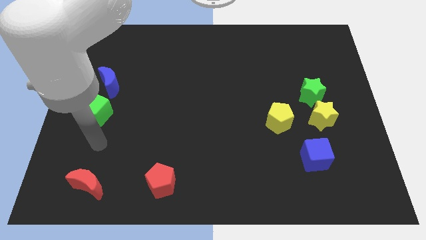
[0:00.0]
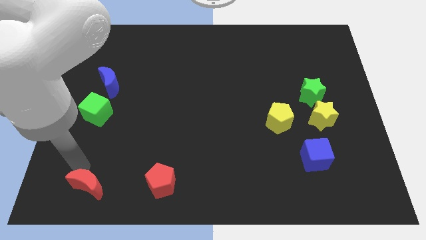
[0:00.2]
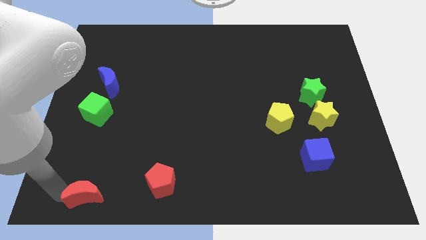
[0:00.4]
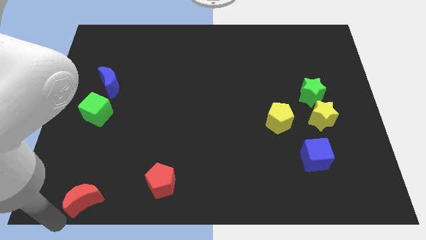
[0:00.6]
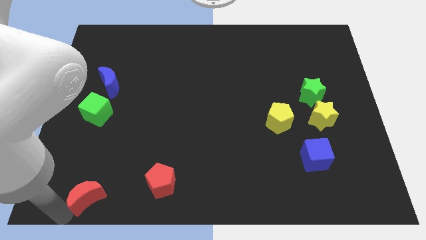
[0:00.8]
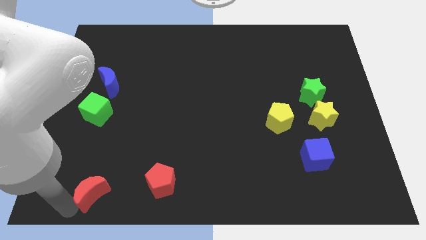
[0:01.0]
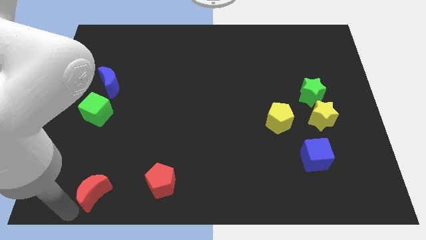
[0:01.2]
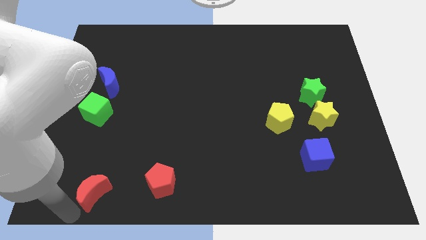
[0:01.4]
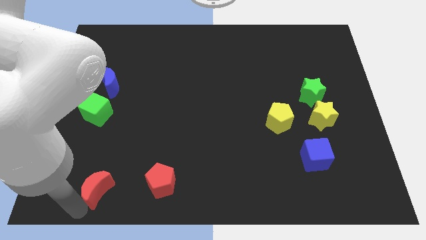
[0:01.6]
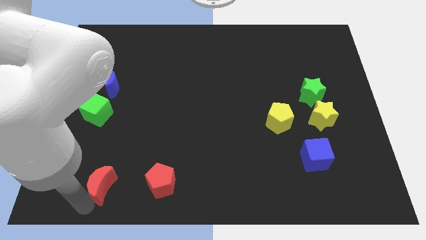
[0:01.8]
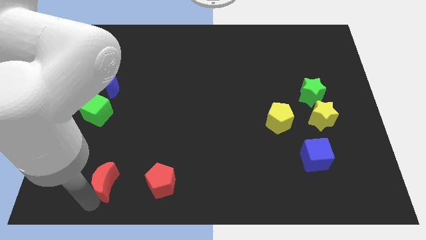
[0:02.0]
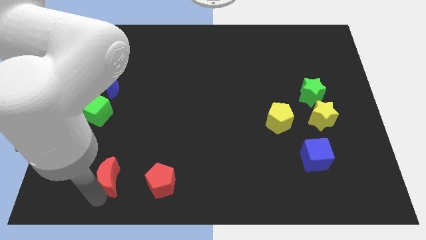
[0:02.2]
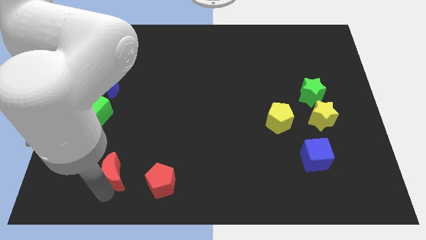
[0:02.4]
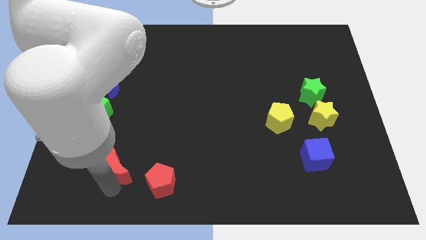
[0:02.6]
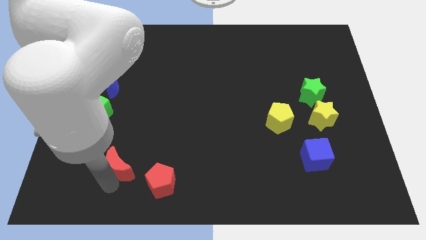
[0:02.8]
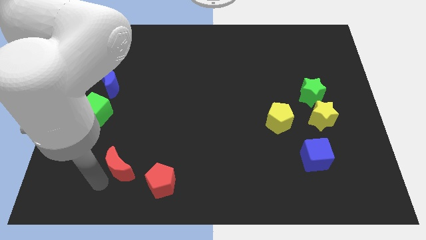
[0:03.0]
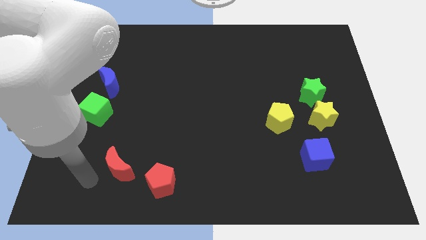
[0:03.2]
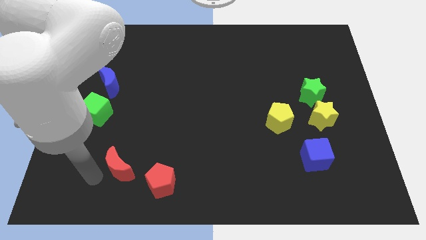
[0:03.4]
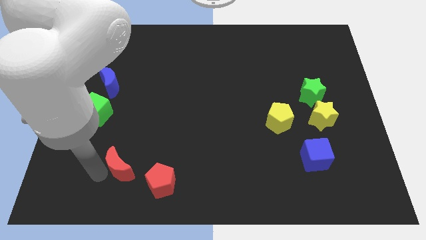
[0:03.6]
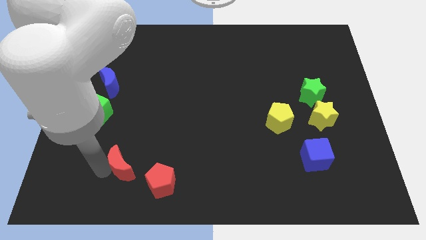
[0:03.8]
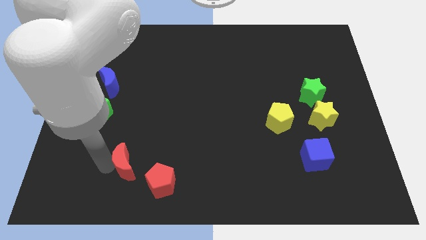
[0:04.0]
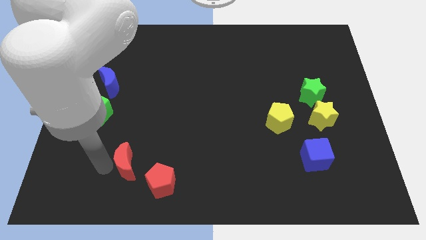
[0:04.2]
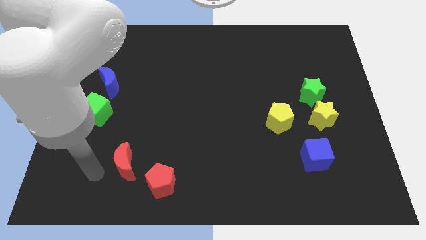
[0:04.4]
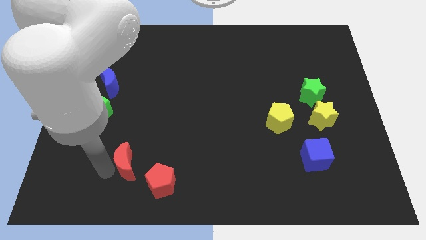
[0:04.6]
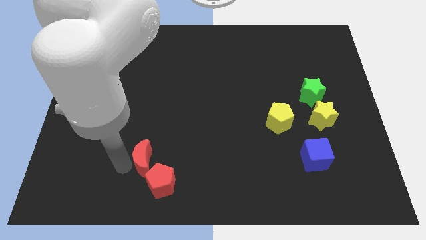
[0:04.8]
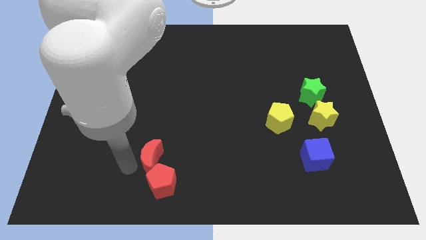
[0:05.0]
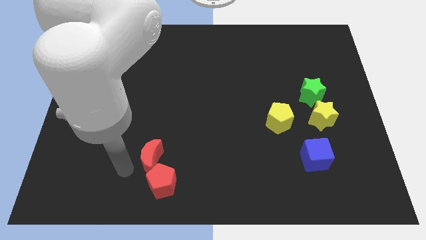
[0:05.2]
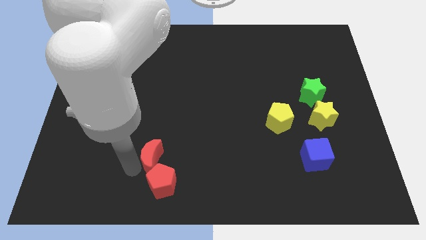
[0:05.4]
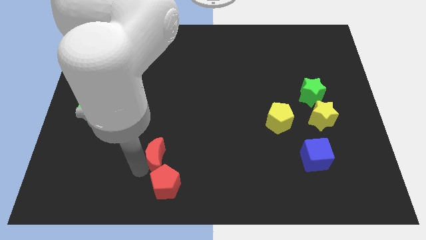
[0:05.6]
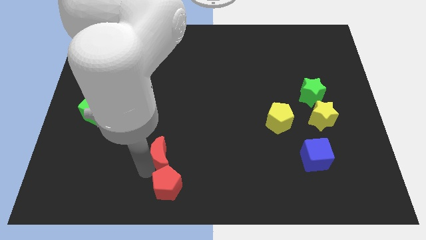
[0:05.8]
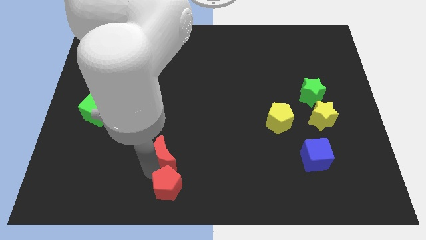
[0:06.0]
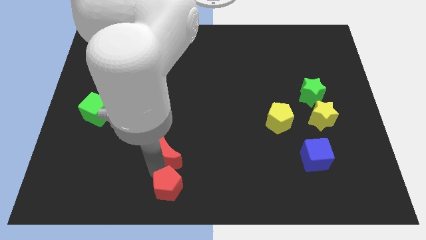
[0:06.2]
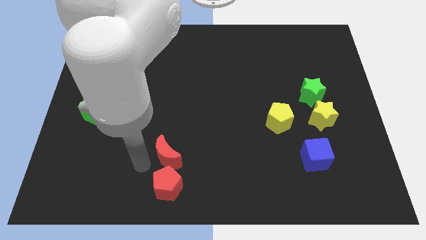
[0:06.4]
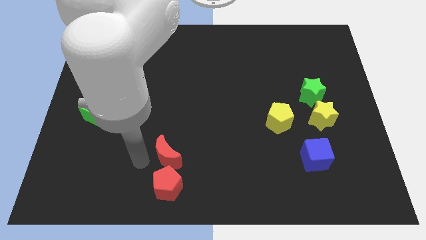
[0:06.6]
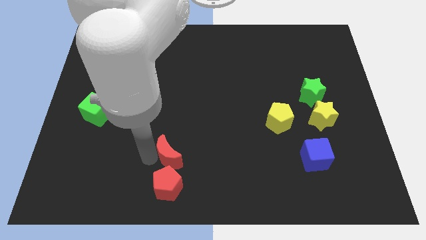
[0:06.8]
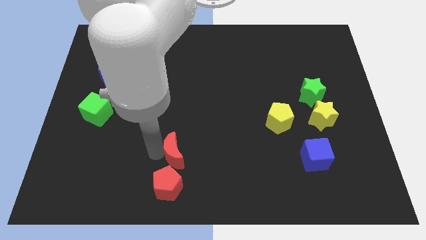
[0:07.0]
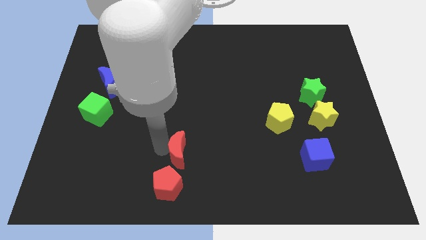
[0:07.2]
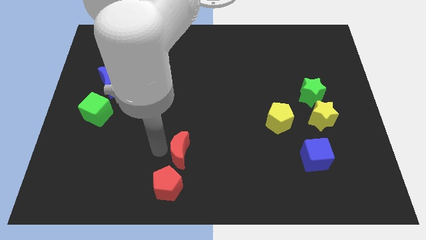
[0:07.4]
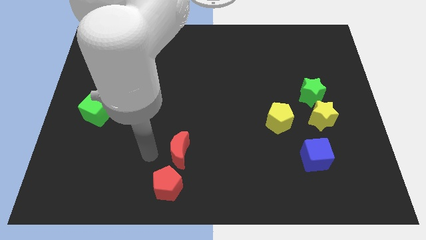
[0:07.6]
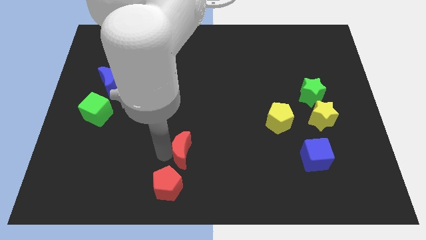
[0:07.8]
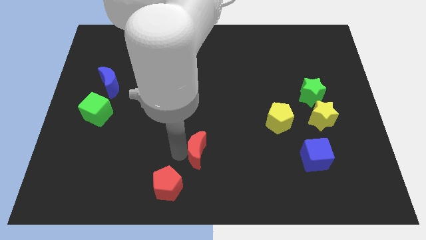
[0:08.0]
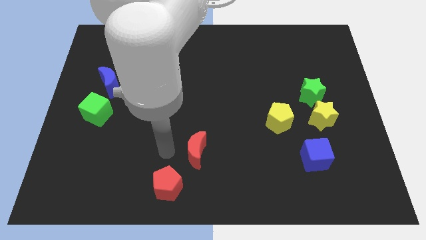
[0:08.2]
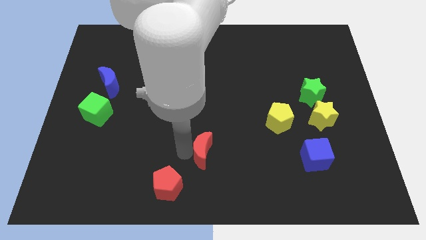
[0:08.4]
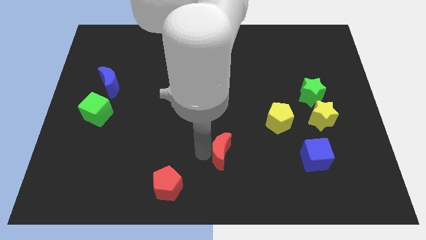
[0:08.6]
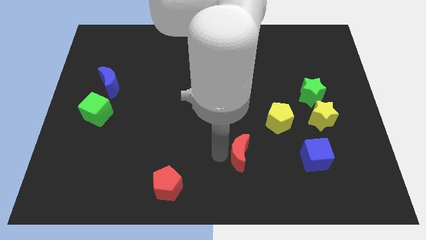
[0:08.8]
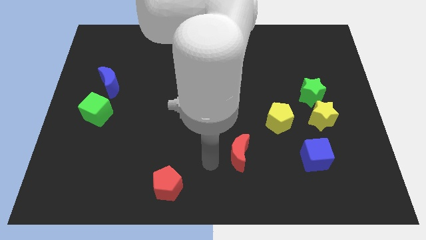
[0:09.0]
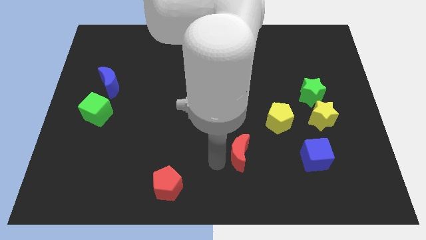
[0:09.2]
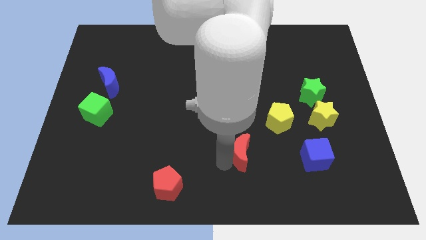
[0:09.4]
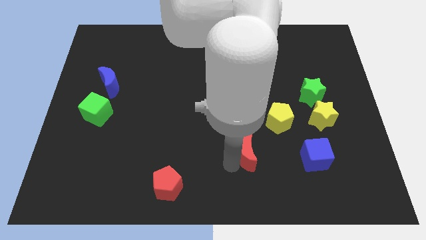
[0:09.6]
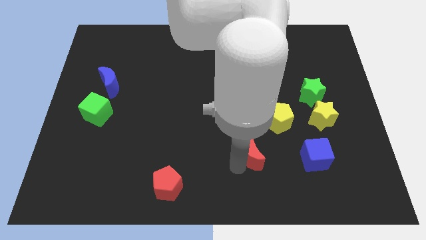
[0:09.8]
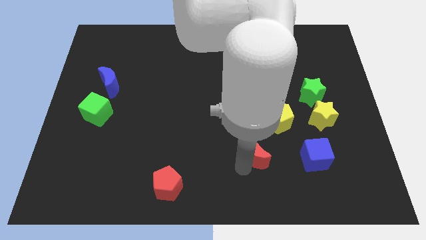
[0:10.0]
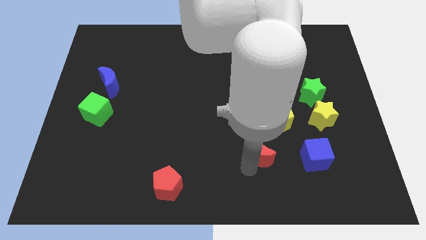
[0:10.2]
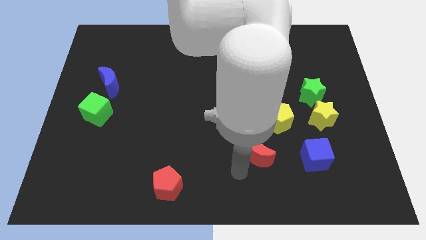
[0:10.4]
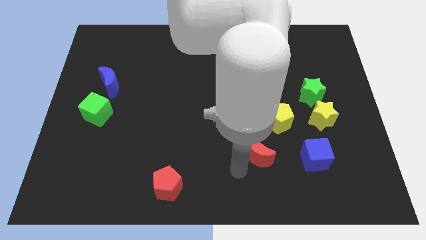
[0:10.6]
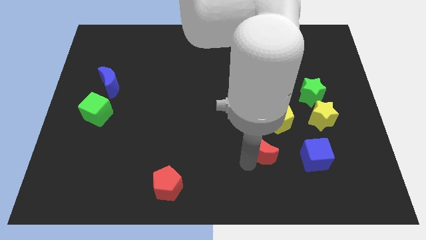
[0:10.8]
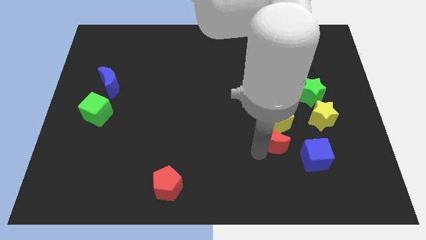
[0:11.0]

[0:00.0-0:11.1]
move the red moon to the top left side of the blue cube

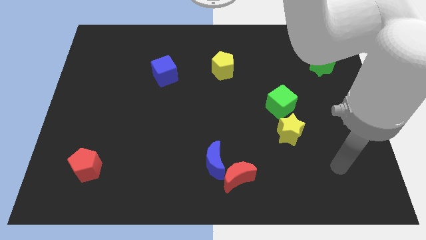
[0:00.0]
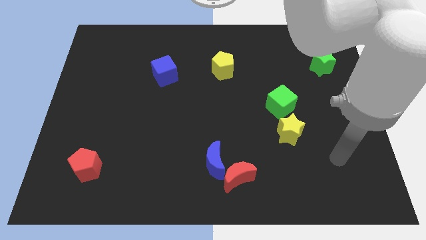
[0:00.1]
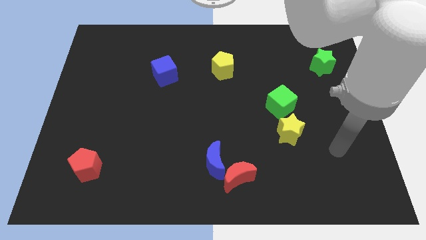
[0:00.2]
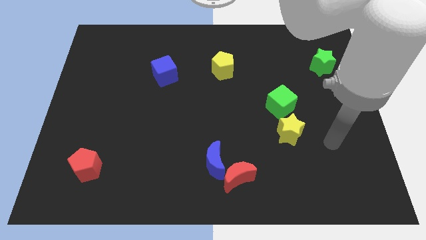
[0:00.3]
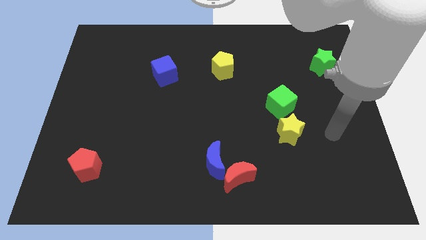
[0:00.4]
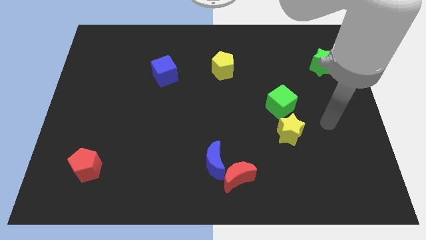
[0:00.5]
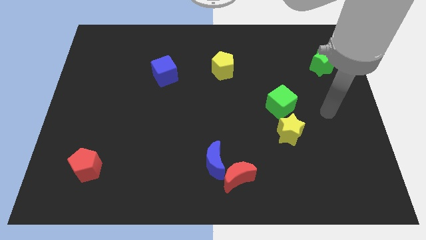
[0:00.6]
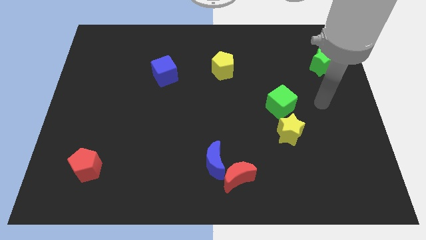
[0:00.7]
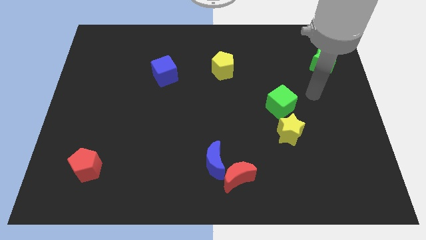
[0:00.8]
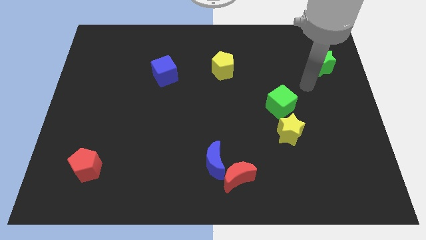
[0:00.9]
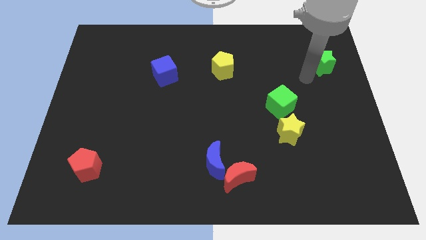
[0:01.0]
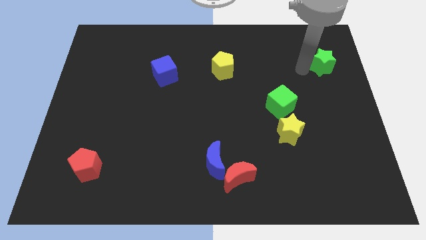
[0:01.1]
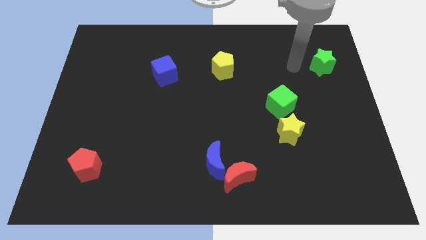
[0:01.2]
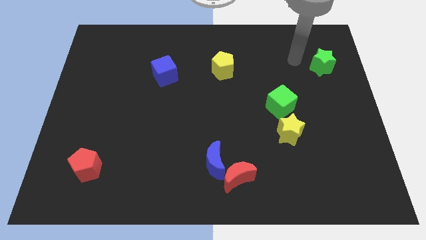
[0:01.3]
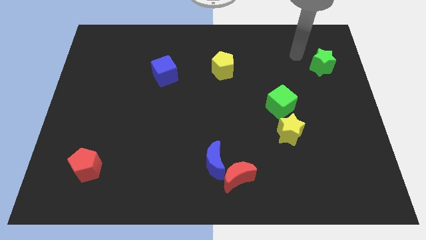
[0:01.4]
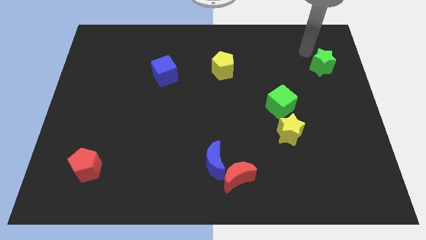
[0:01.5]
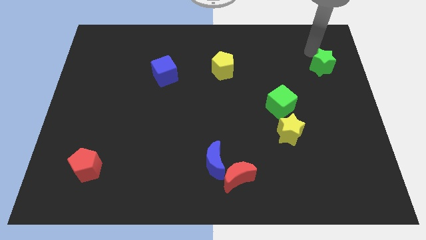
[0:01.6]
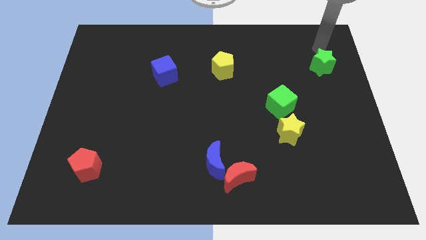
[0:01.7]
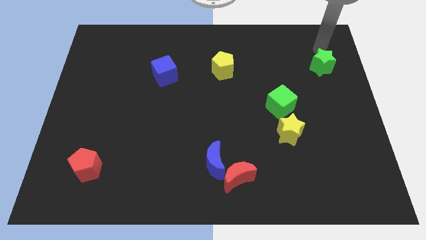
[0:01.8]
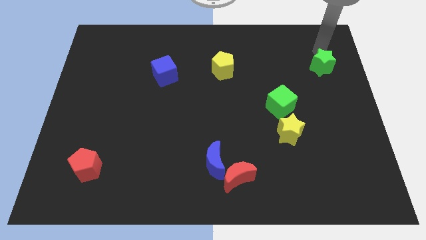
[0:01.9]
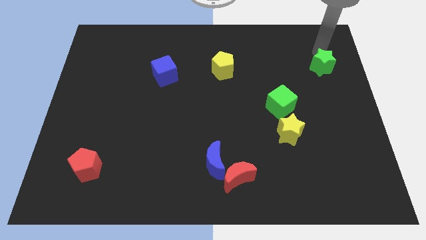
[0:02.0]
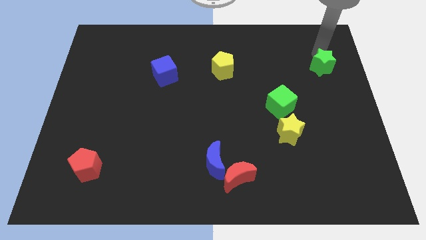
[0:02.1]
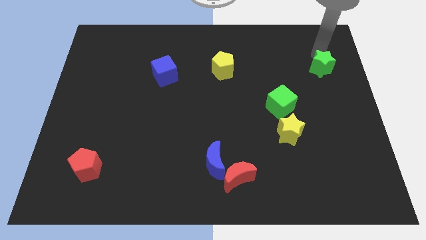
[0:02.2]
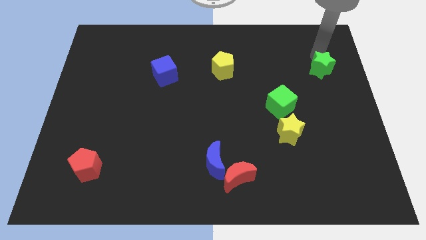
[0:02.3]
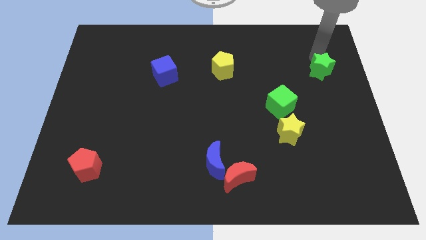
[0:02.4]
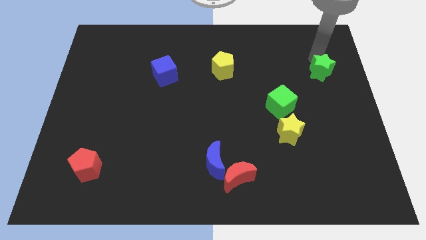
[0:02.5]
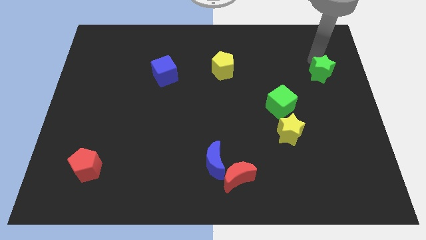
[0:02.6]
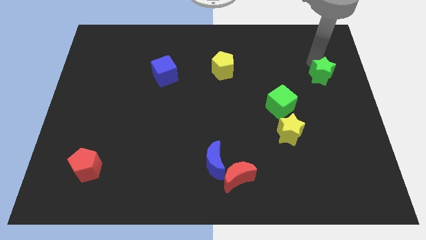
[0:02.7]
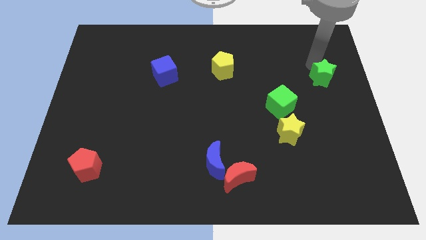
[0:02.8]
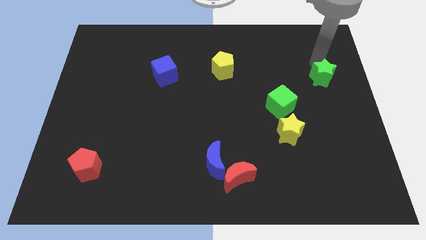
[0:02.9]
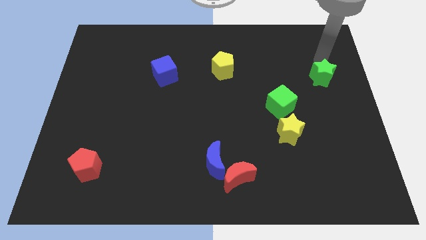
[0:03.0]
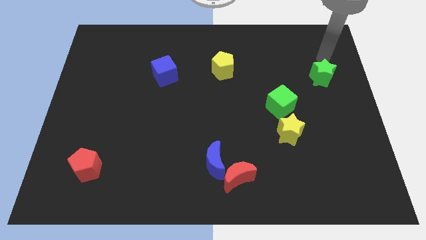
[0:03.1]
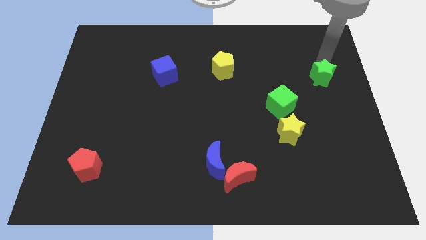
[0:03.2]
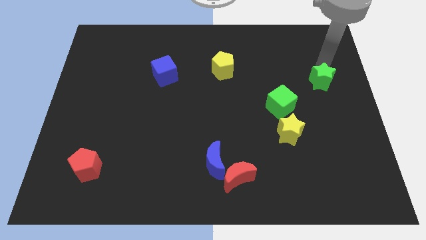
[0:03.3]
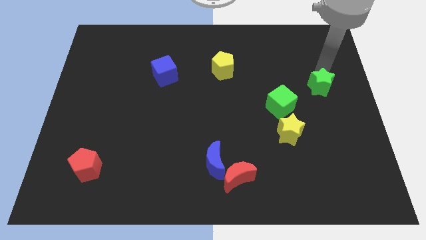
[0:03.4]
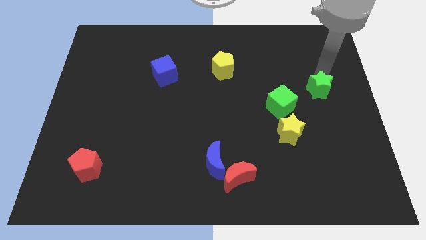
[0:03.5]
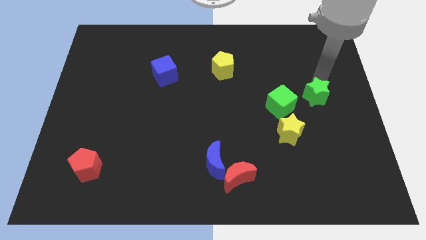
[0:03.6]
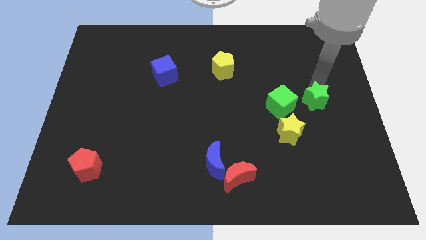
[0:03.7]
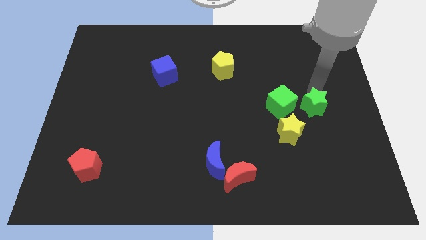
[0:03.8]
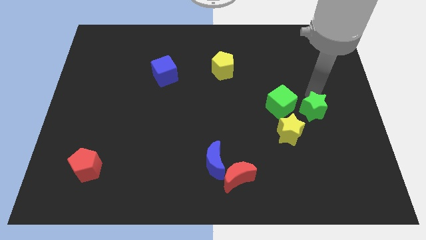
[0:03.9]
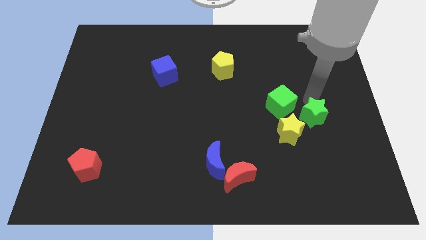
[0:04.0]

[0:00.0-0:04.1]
put the green star to the right of the yellow star
